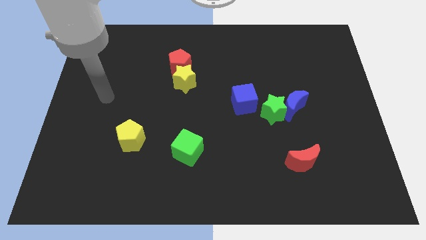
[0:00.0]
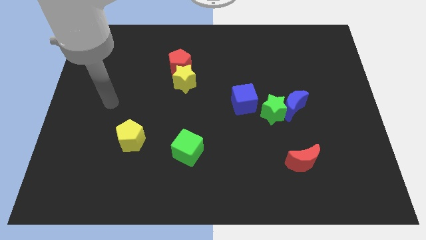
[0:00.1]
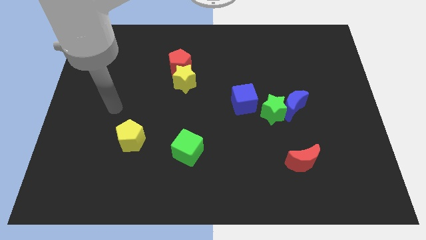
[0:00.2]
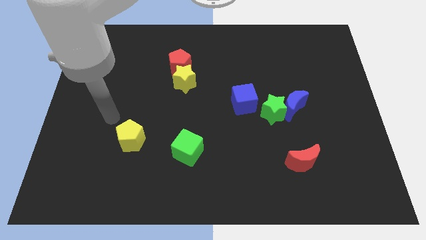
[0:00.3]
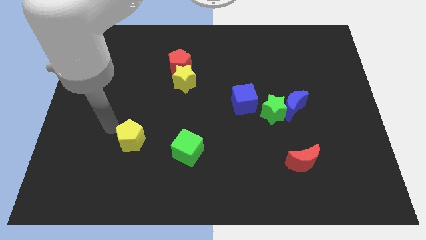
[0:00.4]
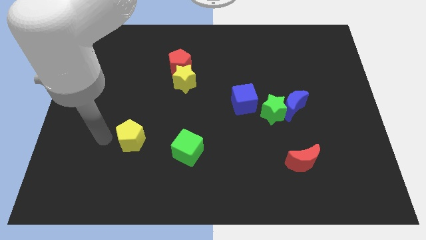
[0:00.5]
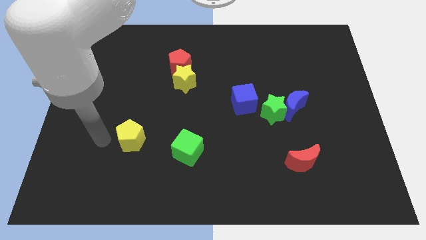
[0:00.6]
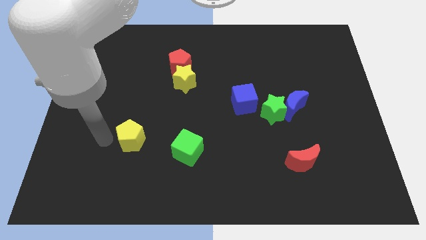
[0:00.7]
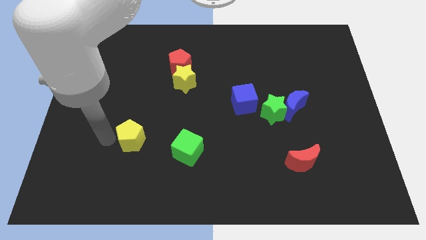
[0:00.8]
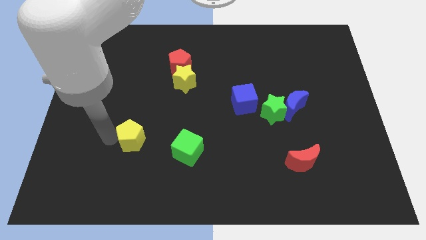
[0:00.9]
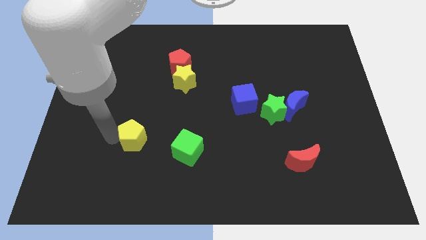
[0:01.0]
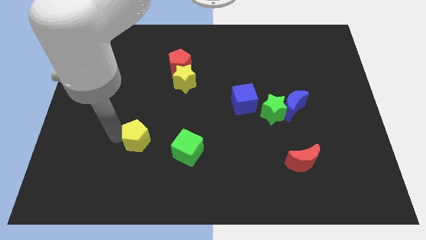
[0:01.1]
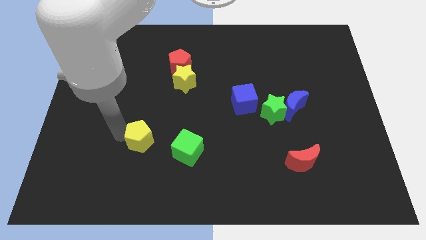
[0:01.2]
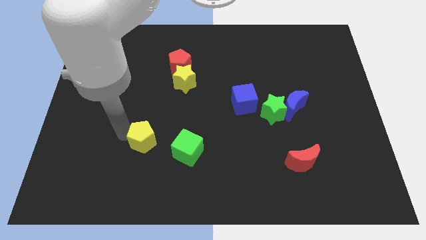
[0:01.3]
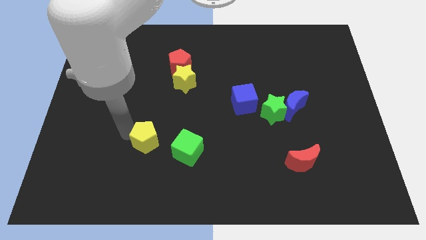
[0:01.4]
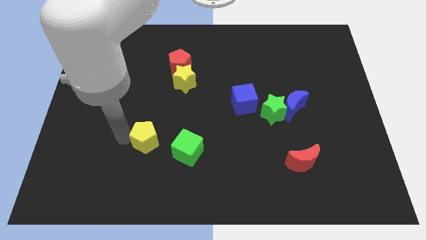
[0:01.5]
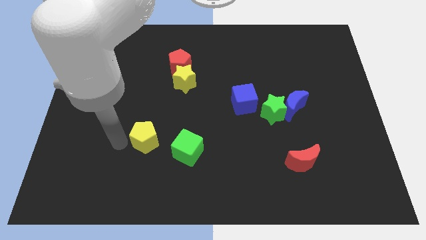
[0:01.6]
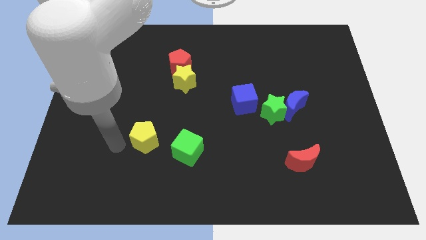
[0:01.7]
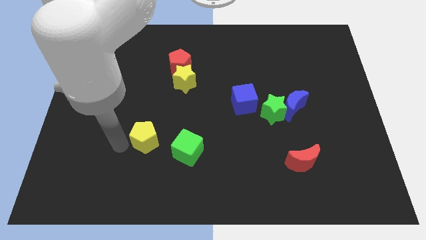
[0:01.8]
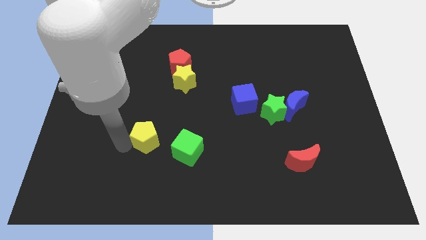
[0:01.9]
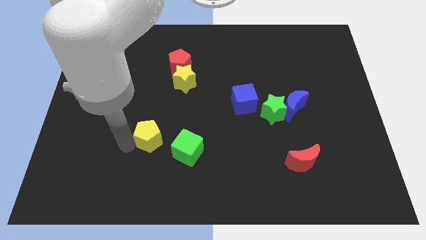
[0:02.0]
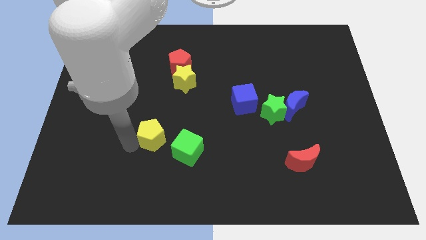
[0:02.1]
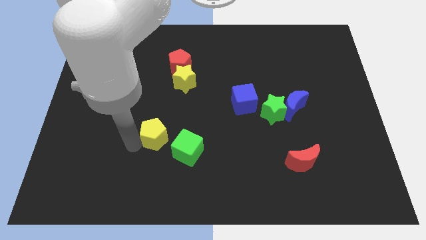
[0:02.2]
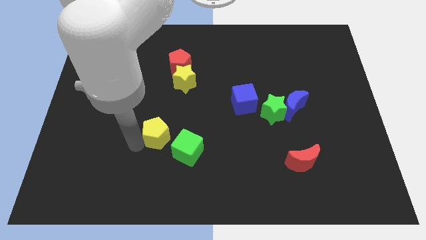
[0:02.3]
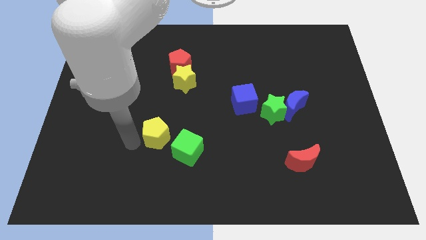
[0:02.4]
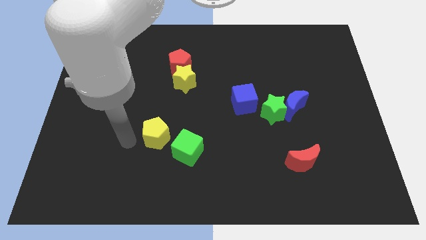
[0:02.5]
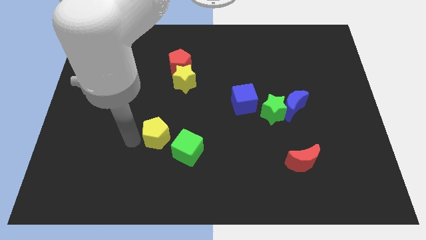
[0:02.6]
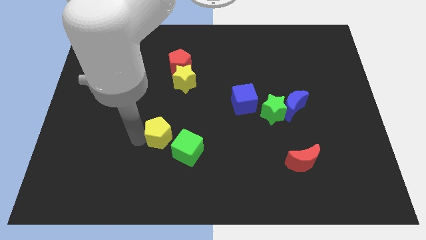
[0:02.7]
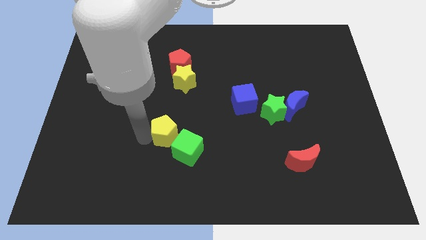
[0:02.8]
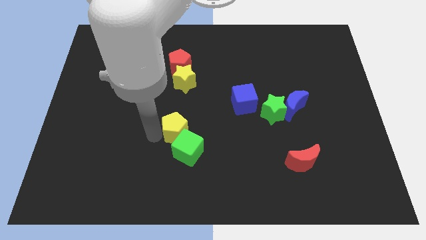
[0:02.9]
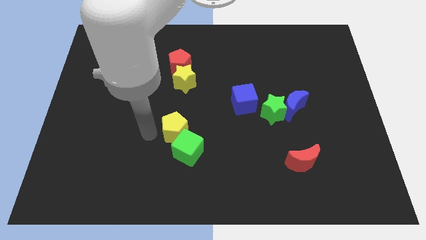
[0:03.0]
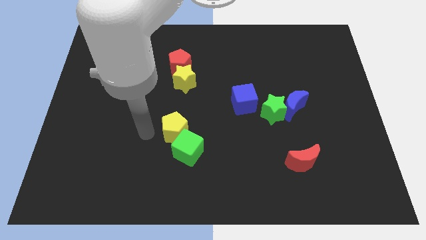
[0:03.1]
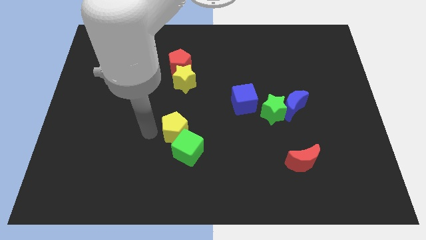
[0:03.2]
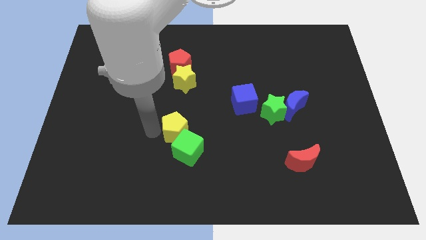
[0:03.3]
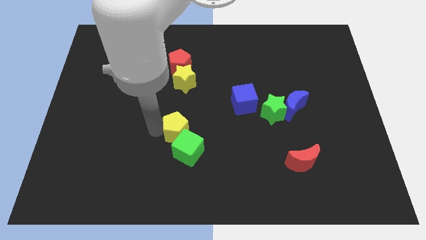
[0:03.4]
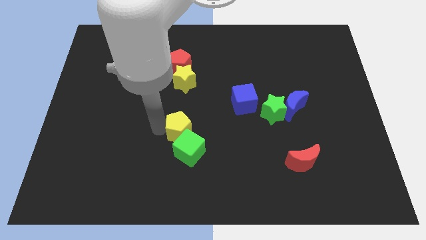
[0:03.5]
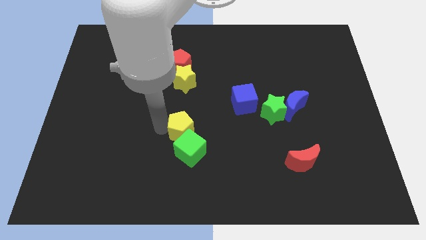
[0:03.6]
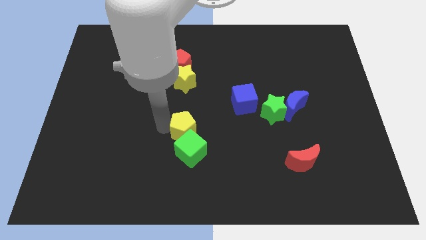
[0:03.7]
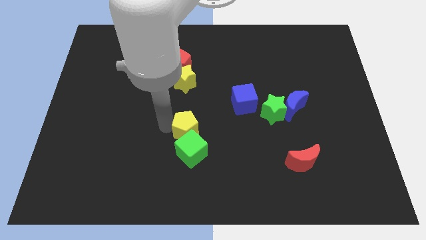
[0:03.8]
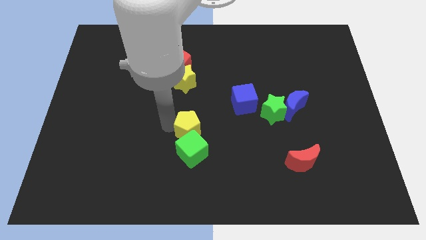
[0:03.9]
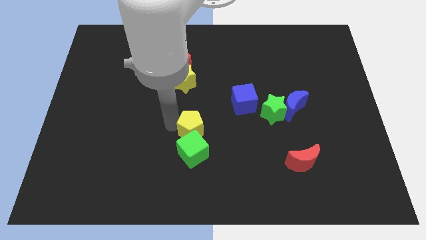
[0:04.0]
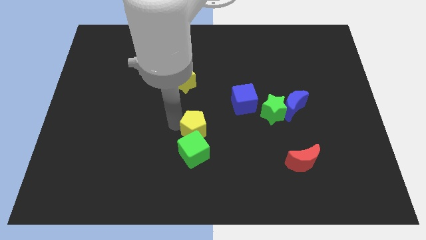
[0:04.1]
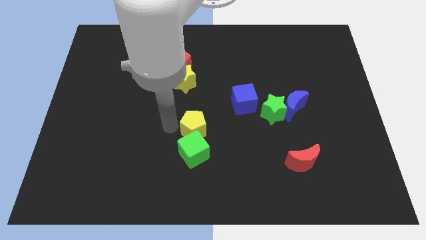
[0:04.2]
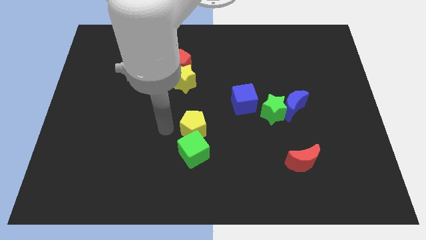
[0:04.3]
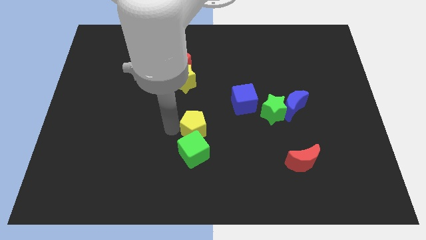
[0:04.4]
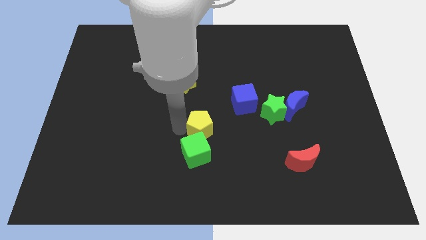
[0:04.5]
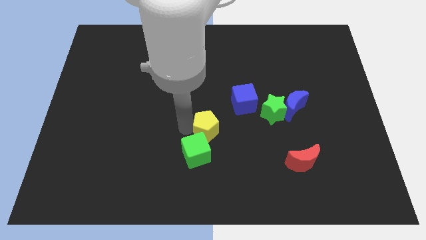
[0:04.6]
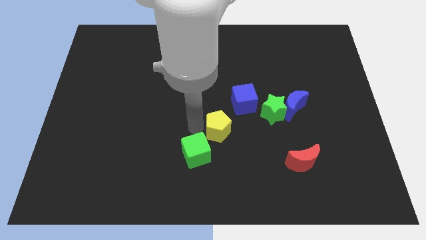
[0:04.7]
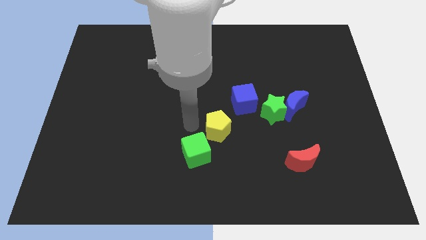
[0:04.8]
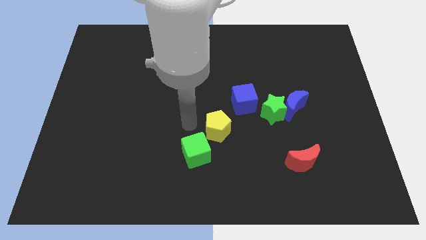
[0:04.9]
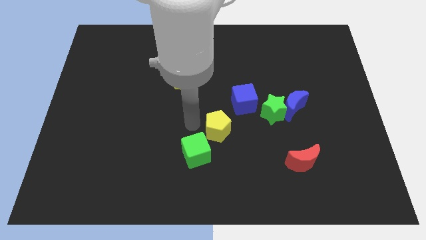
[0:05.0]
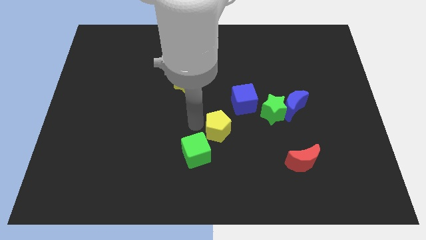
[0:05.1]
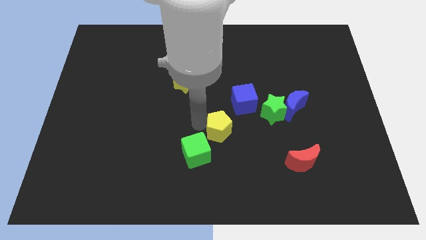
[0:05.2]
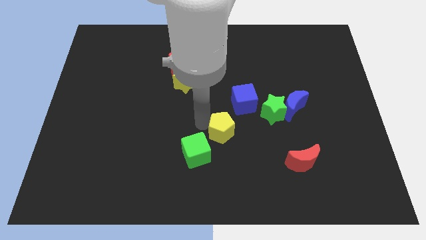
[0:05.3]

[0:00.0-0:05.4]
push the yellow pentagon to the right

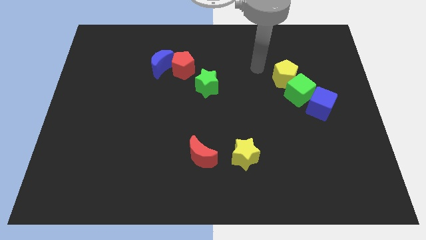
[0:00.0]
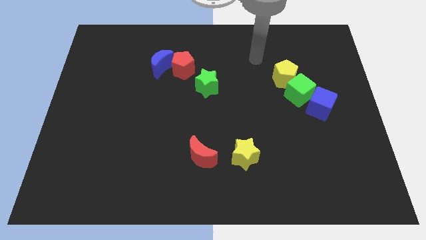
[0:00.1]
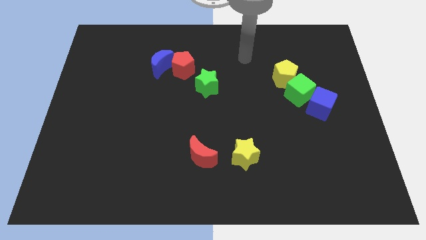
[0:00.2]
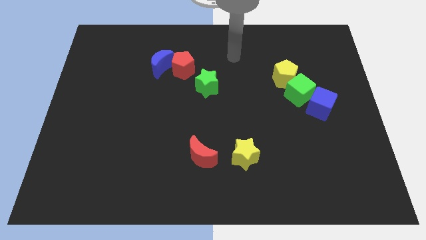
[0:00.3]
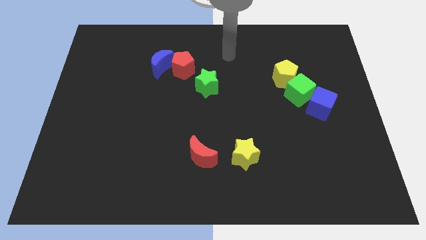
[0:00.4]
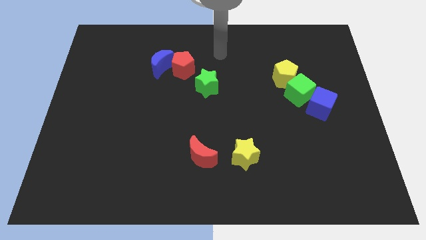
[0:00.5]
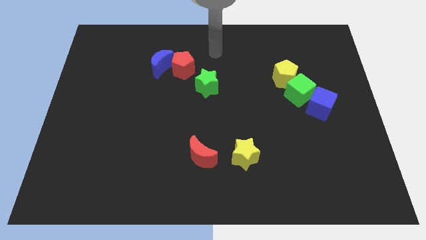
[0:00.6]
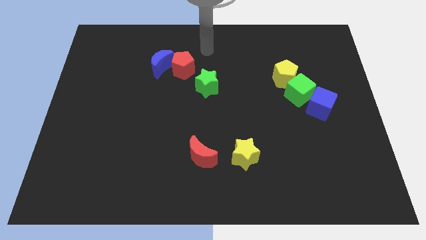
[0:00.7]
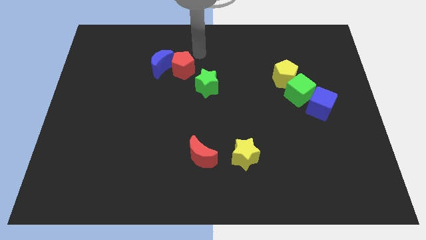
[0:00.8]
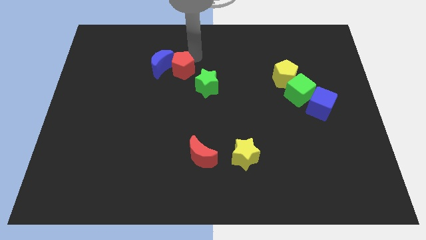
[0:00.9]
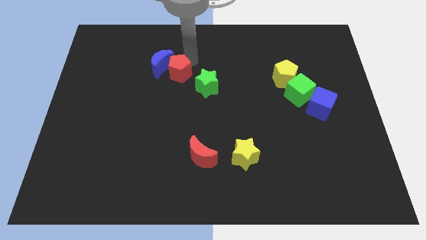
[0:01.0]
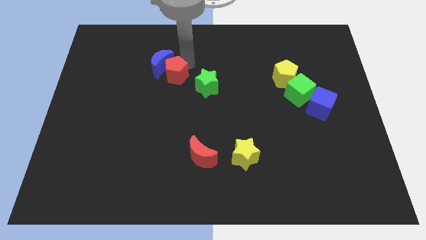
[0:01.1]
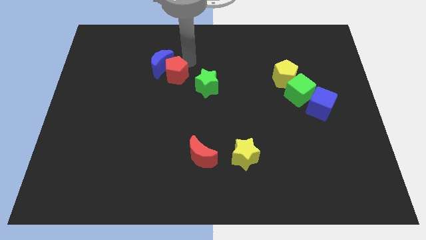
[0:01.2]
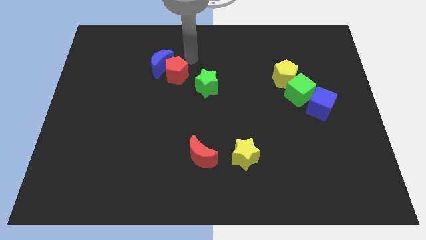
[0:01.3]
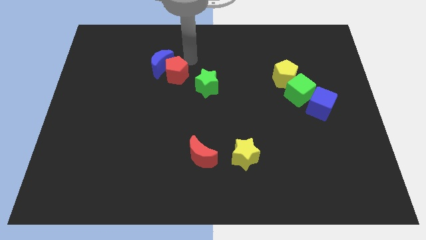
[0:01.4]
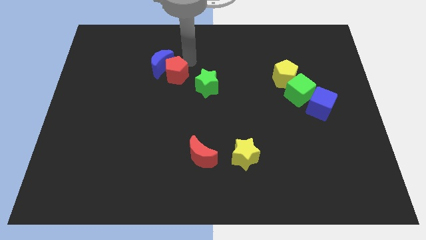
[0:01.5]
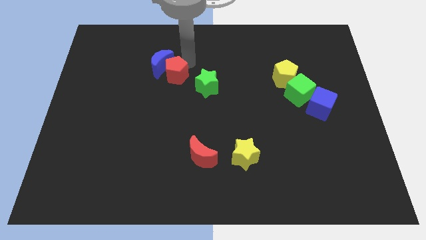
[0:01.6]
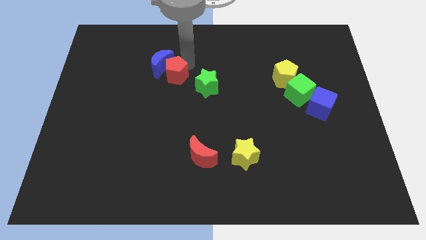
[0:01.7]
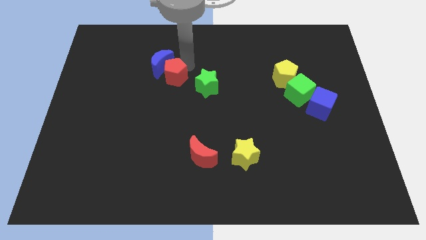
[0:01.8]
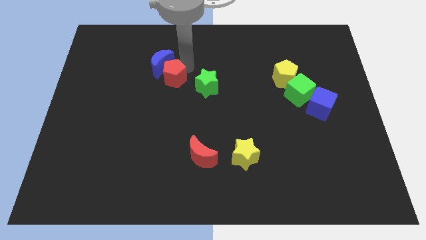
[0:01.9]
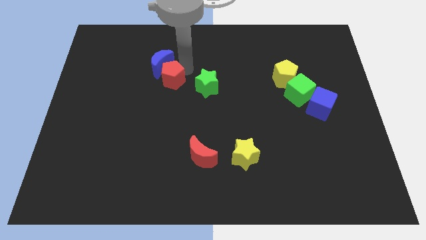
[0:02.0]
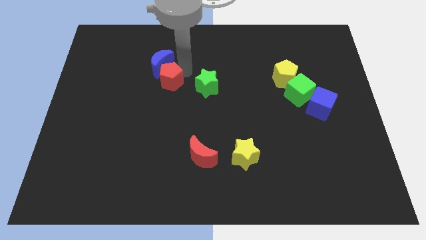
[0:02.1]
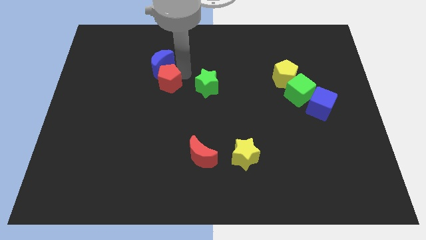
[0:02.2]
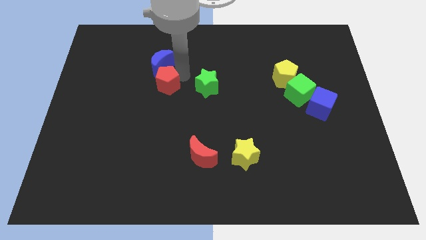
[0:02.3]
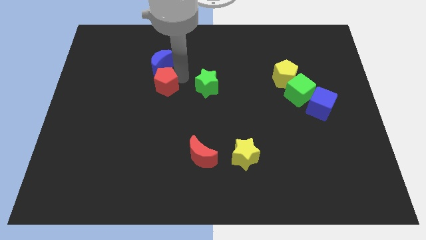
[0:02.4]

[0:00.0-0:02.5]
slightly push the red pentagon diagonally downwards and left

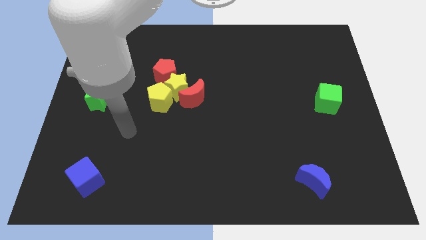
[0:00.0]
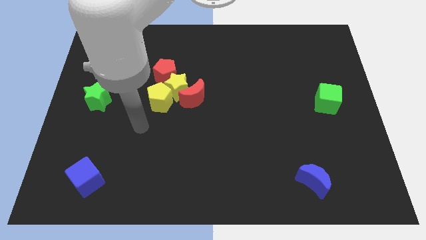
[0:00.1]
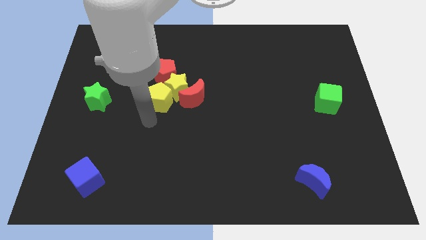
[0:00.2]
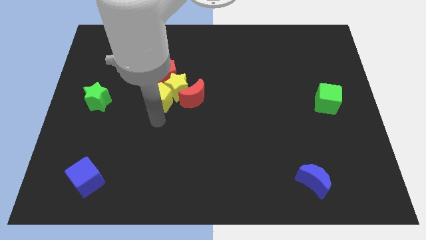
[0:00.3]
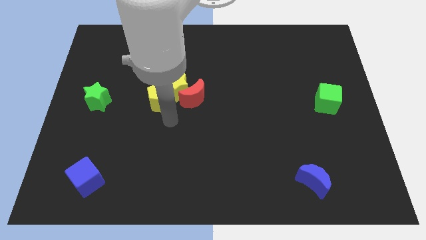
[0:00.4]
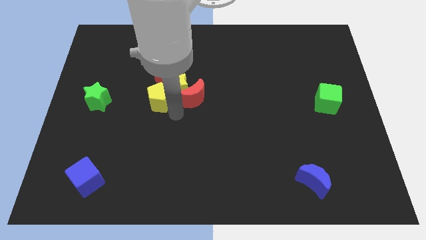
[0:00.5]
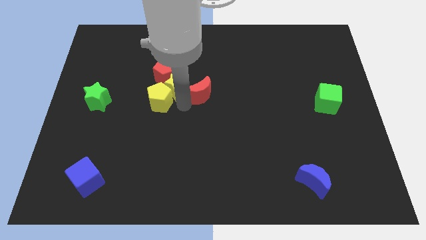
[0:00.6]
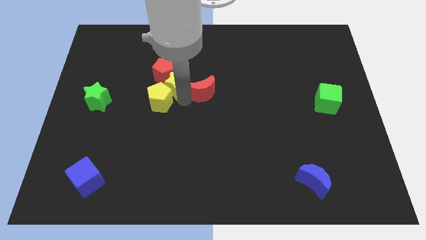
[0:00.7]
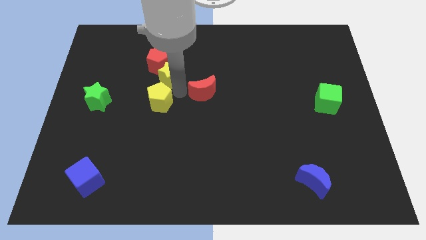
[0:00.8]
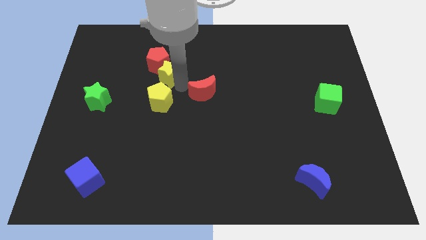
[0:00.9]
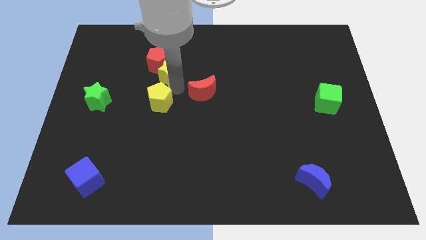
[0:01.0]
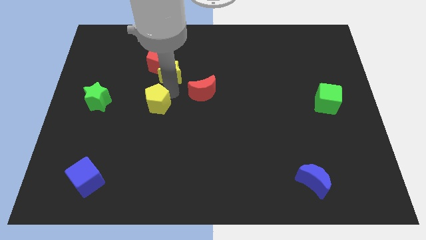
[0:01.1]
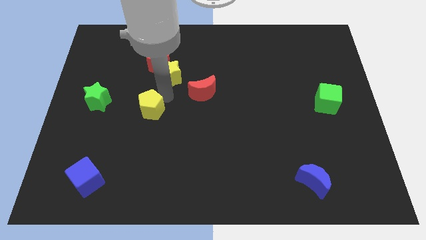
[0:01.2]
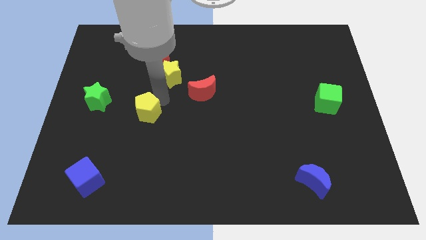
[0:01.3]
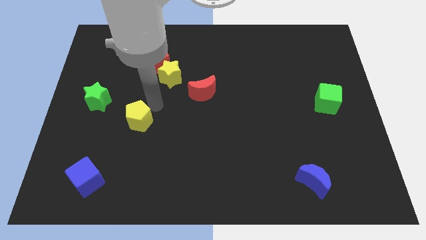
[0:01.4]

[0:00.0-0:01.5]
slightly slide the yellow pentagon down and then left
